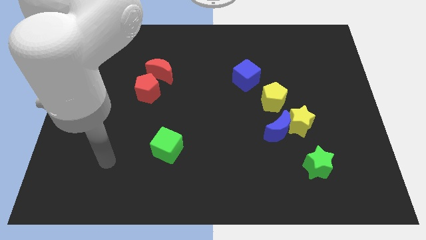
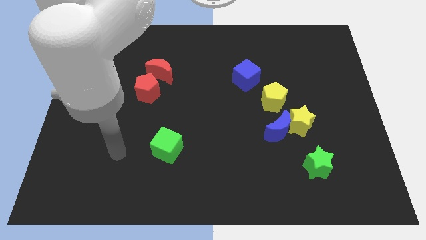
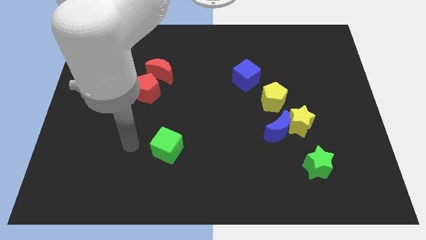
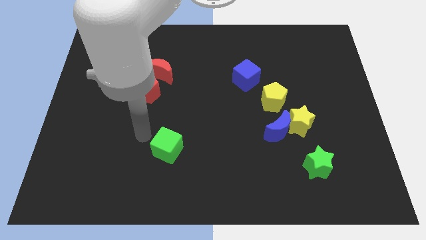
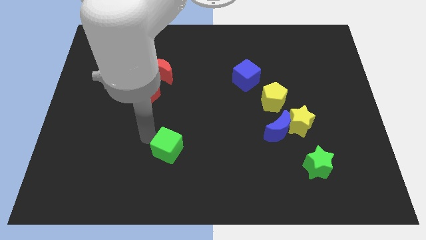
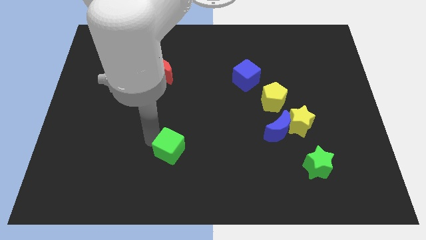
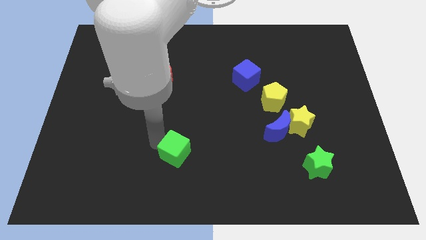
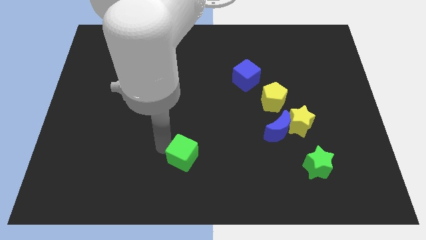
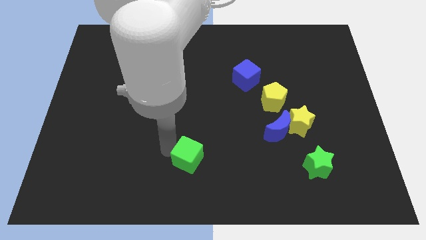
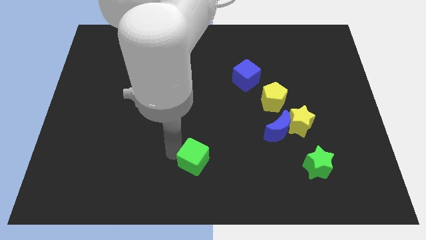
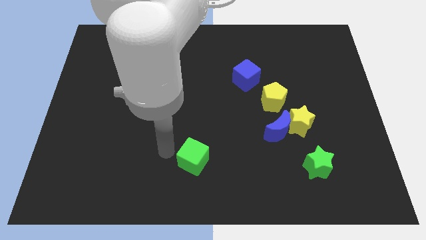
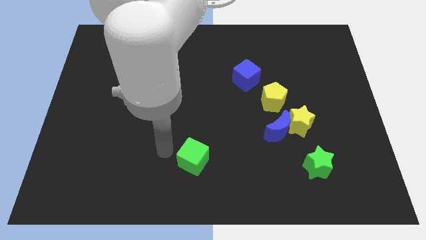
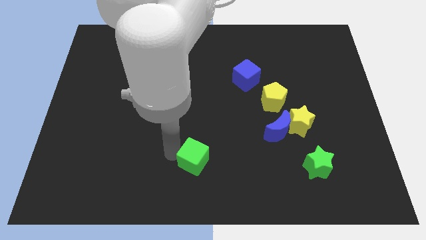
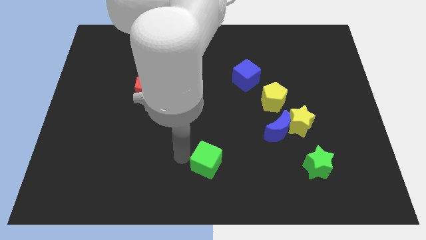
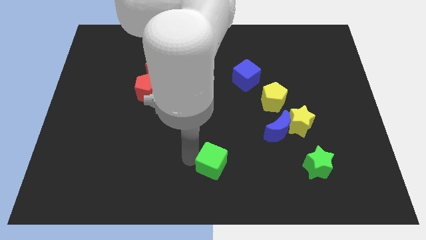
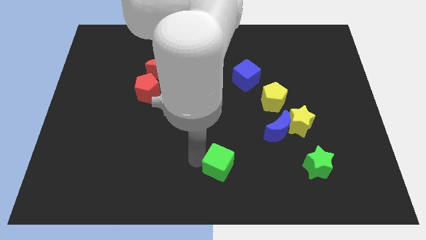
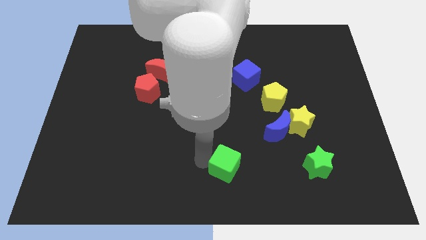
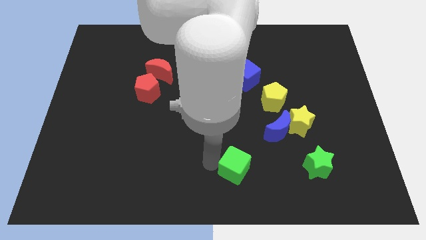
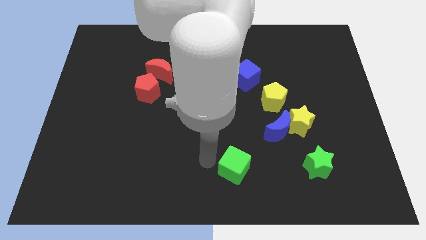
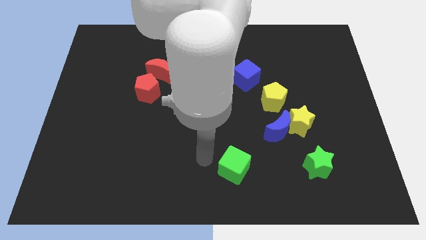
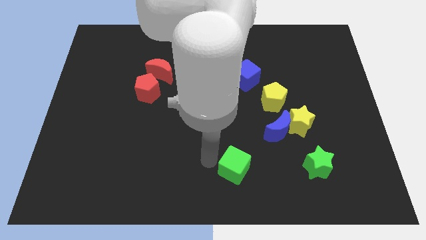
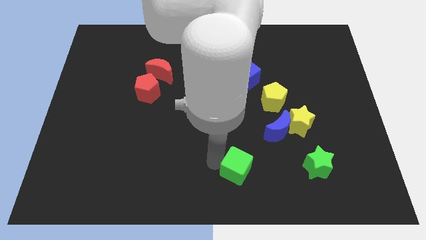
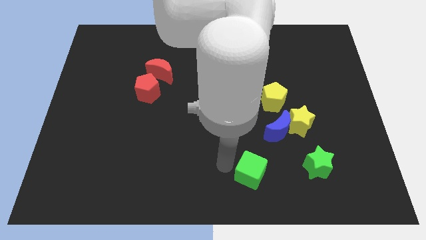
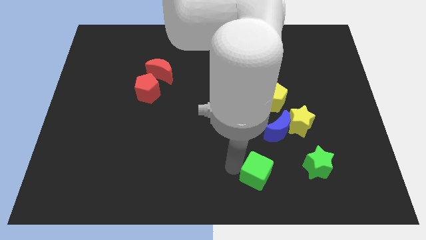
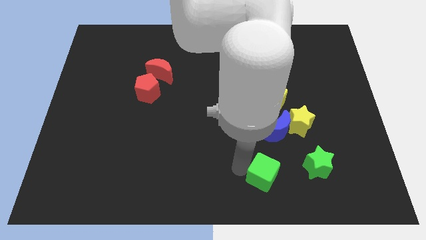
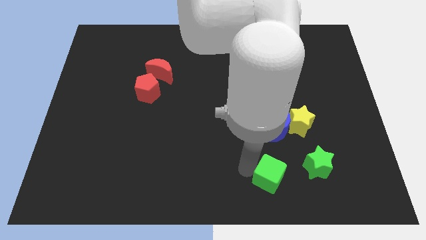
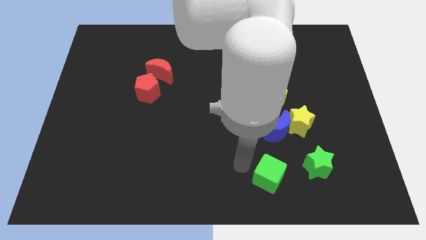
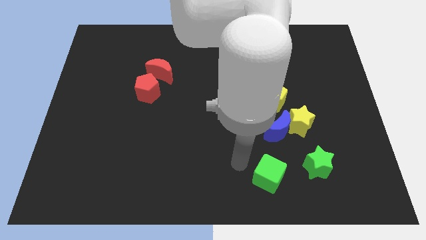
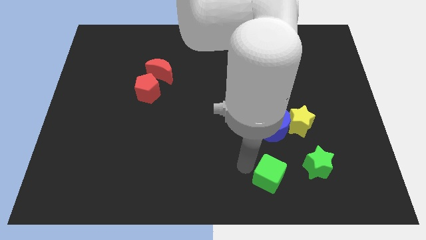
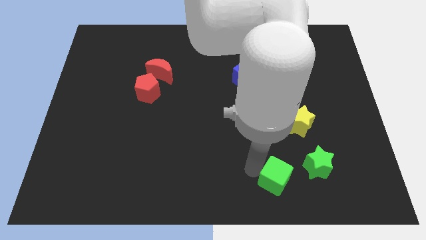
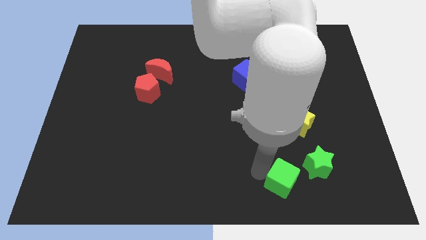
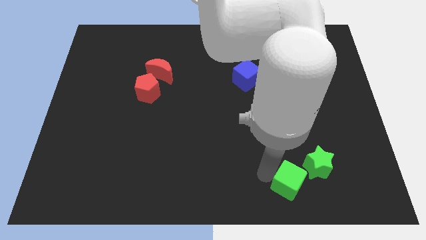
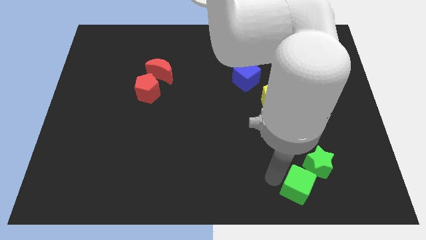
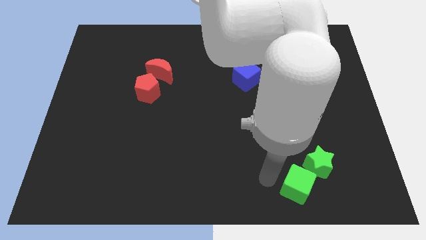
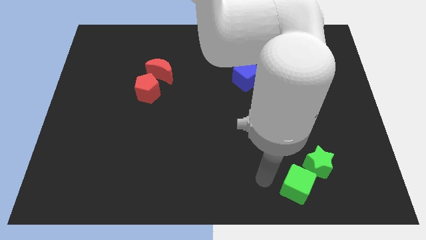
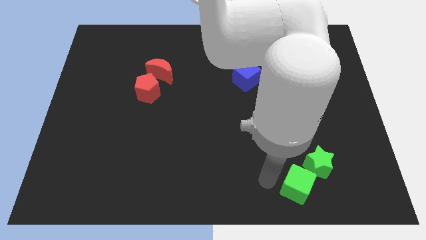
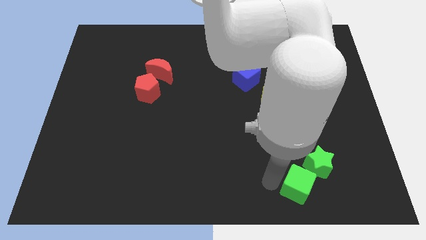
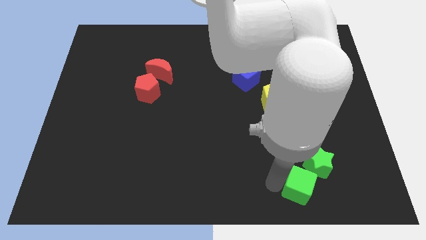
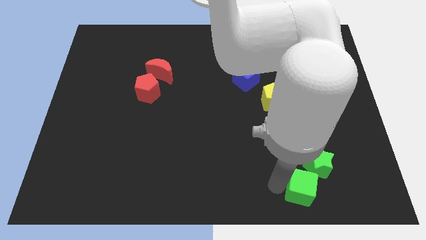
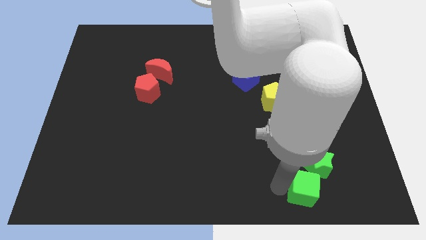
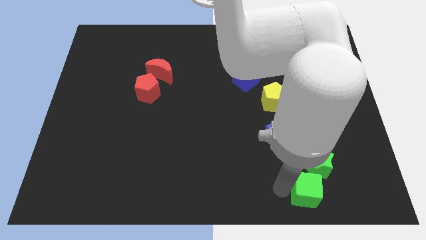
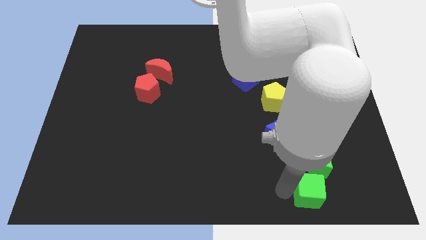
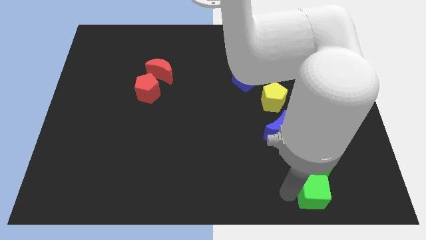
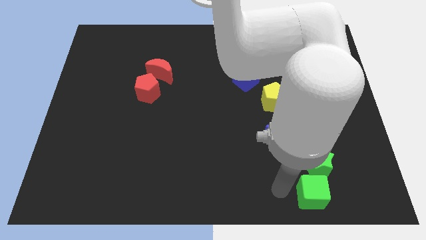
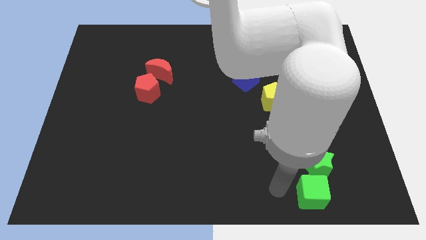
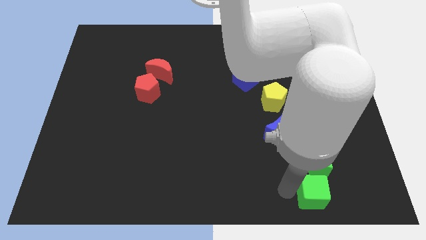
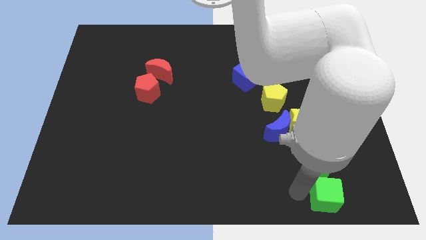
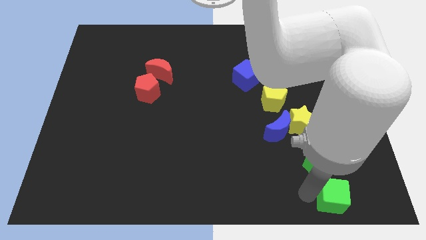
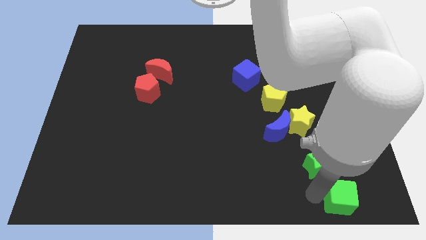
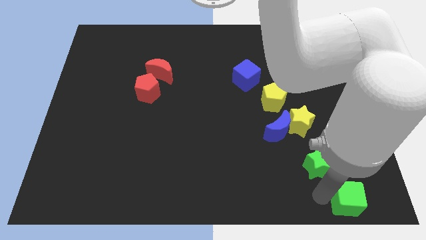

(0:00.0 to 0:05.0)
put the green cube to the bottom right

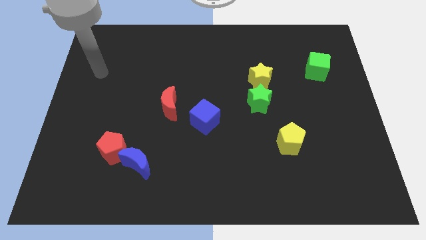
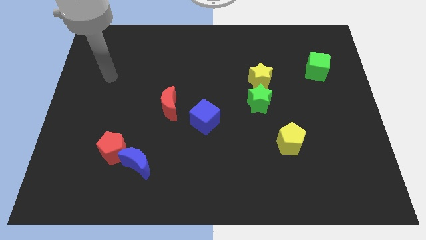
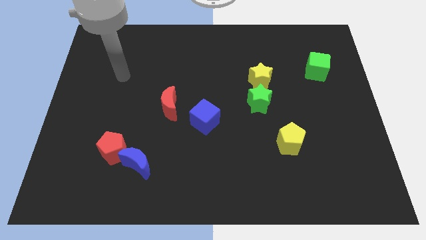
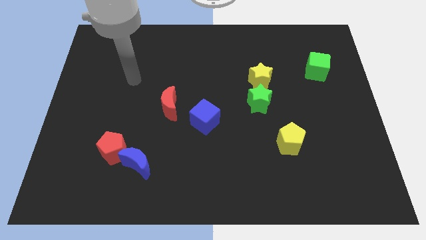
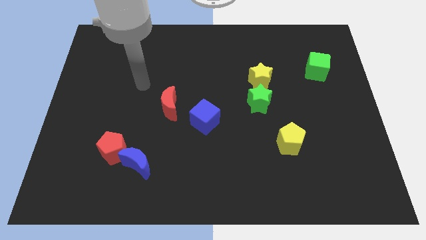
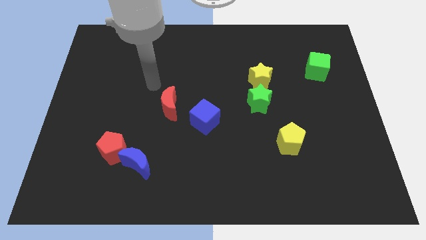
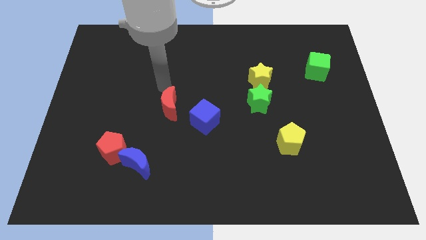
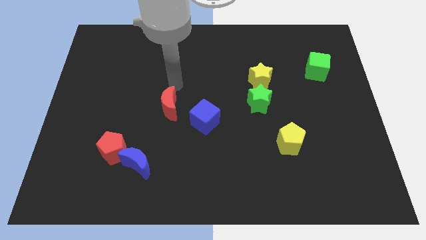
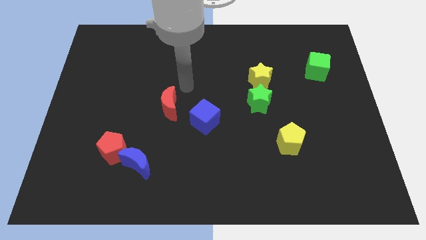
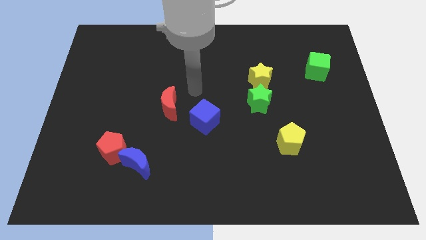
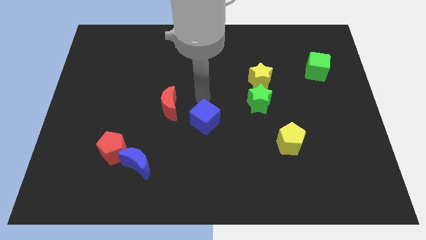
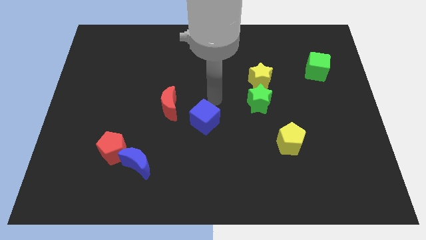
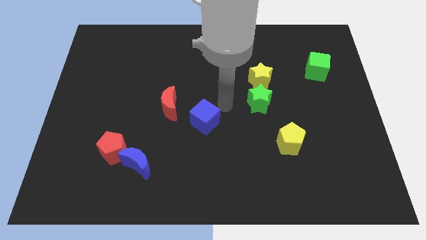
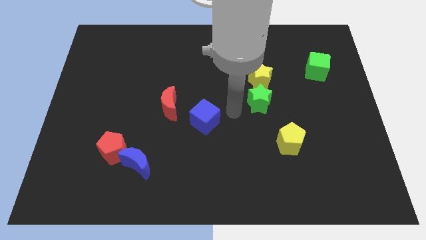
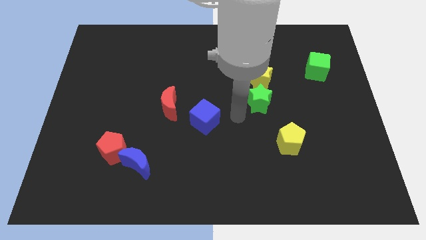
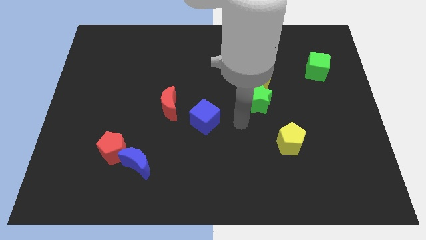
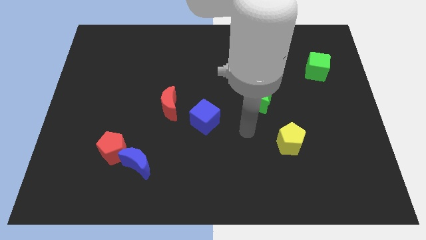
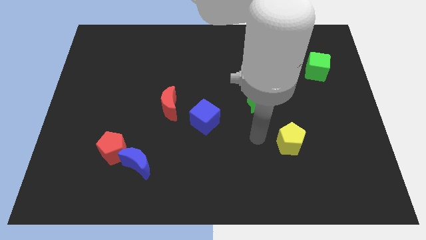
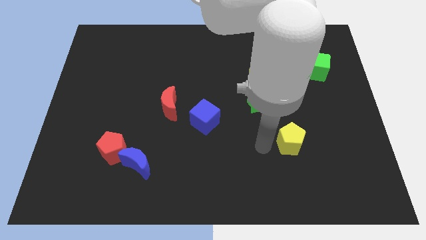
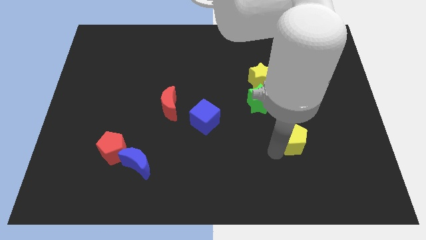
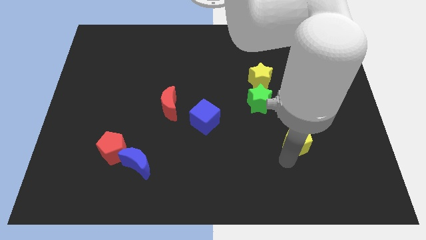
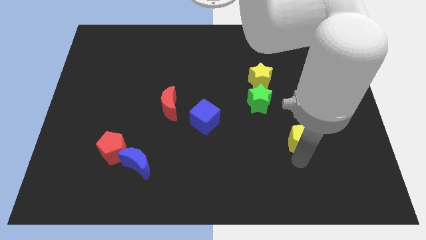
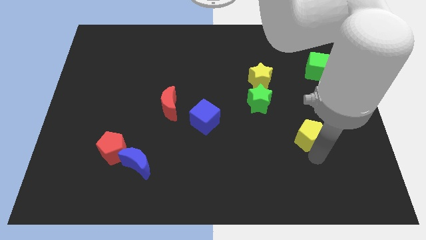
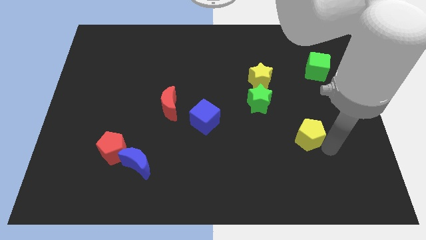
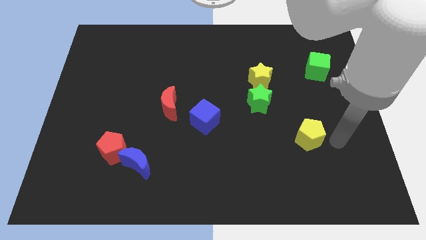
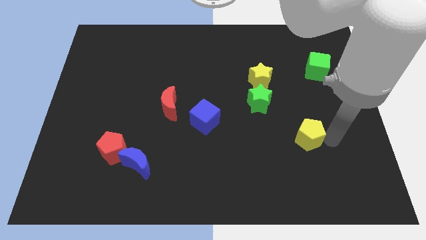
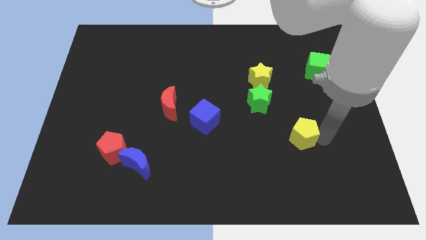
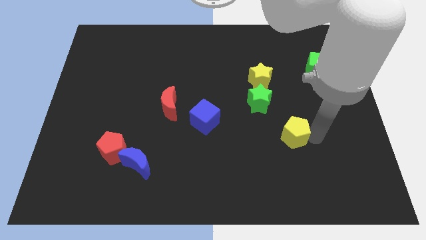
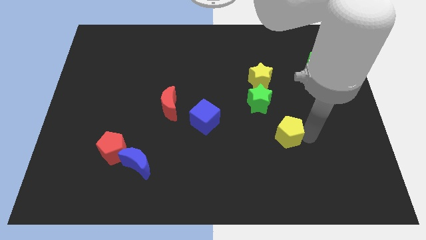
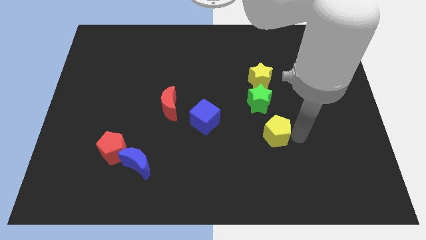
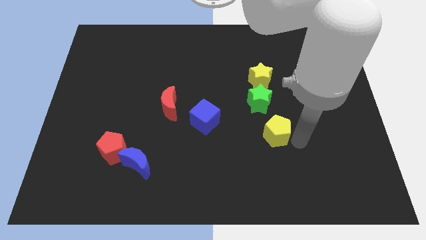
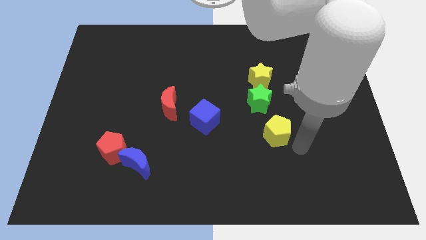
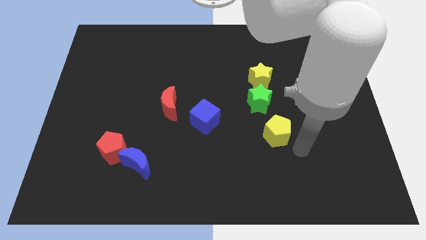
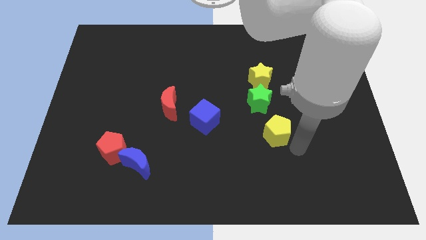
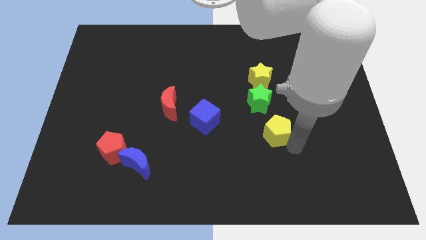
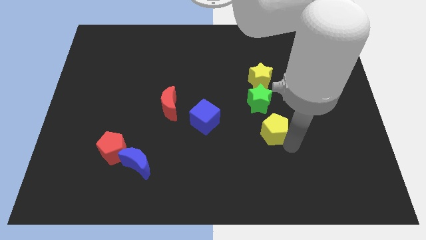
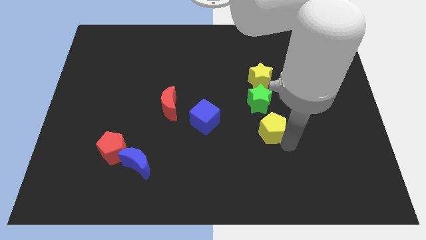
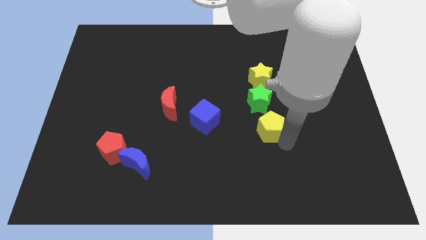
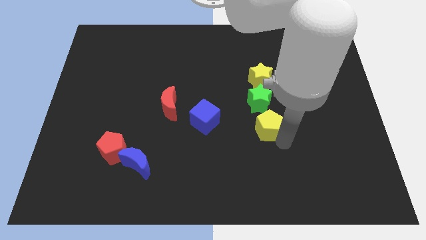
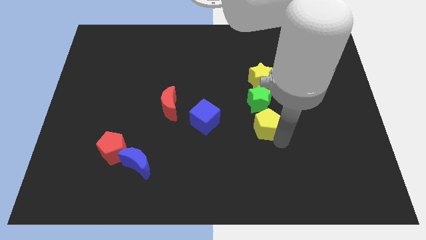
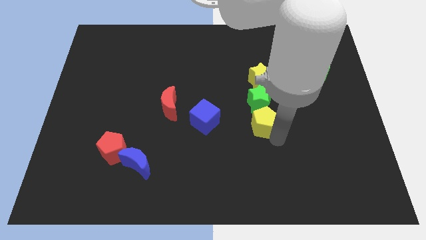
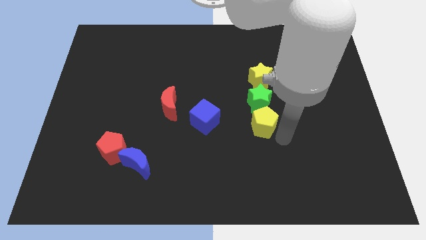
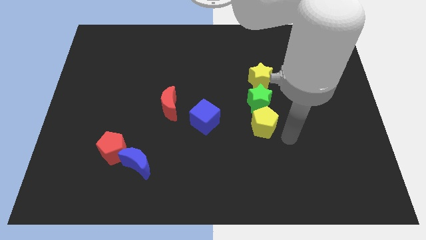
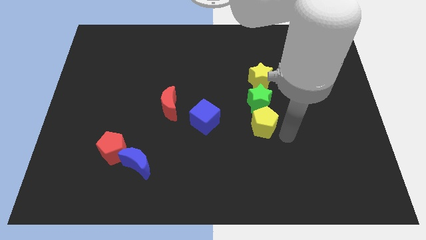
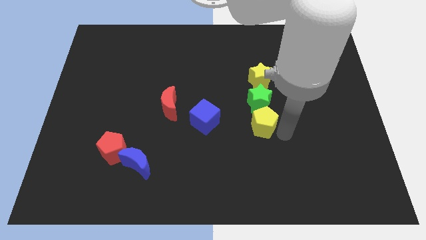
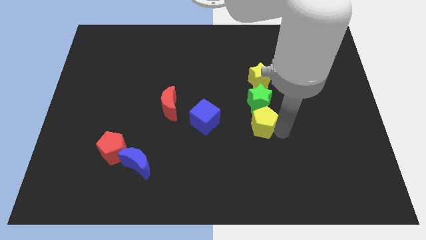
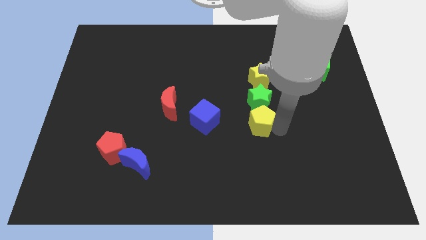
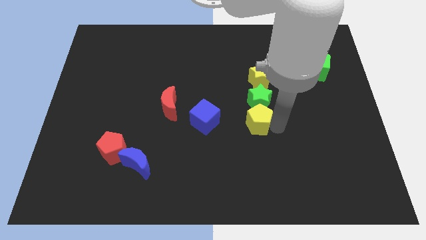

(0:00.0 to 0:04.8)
move the yellow pentagon to the middle of the board
